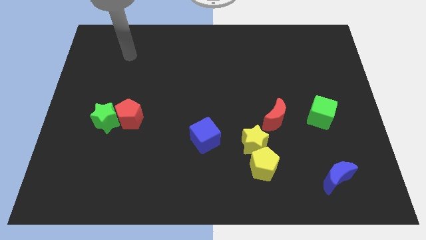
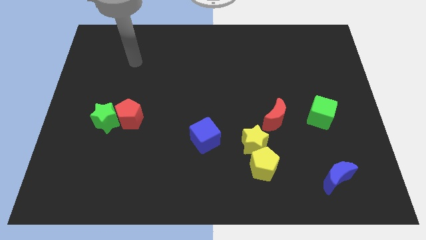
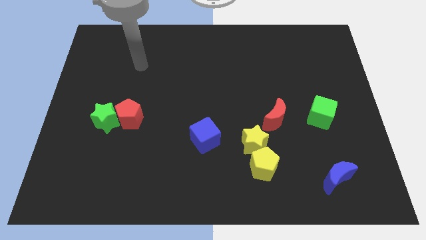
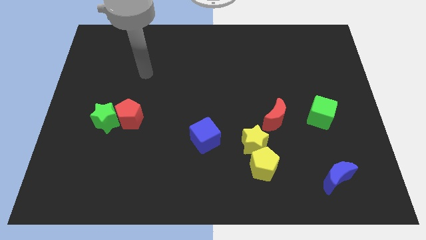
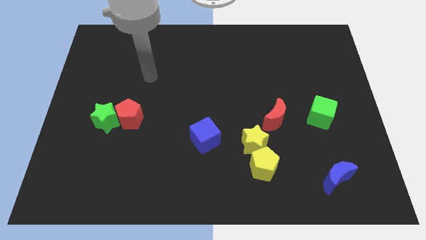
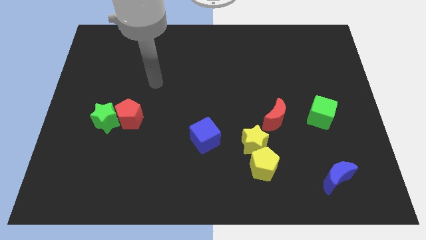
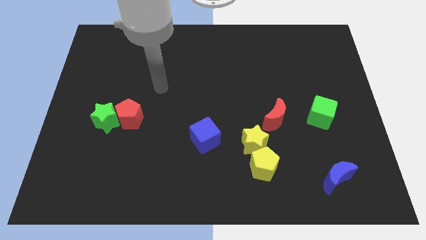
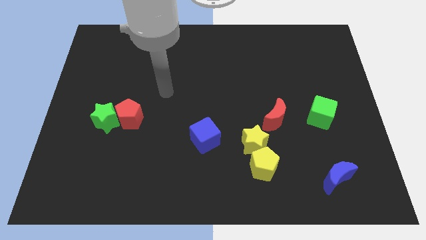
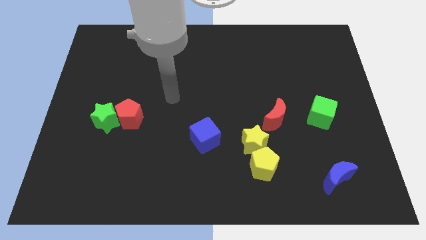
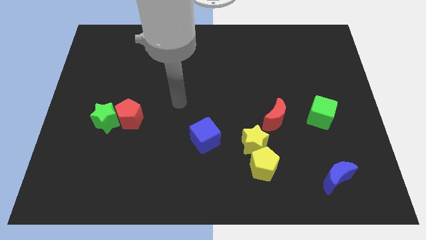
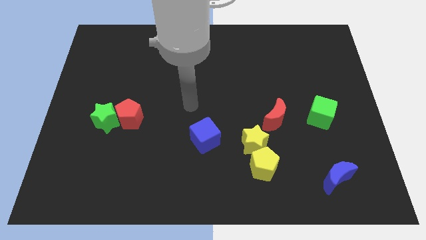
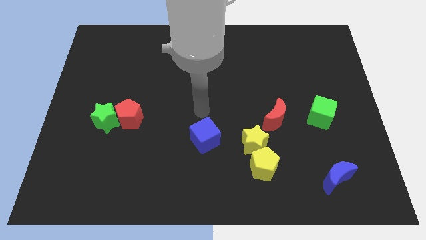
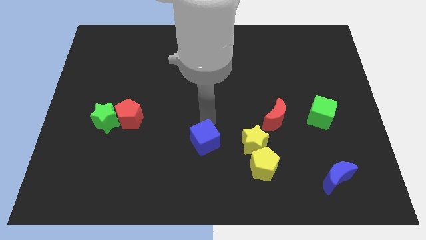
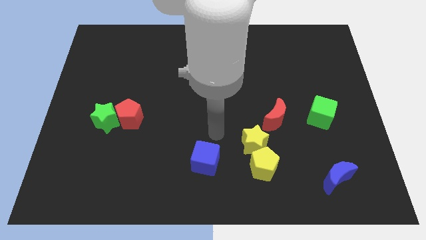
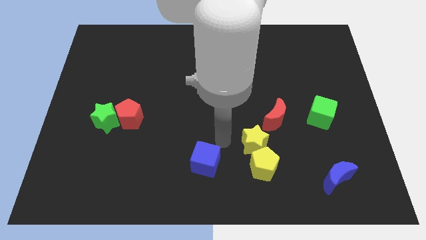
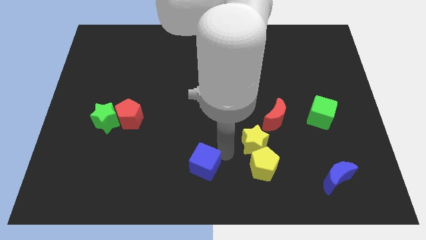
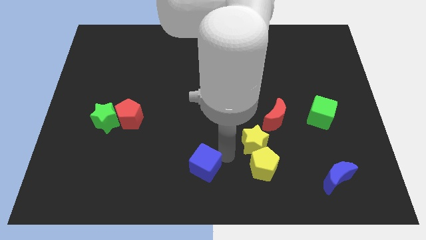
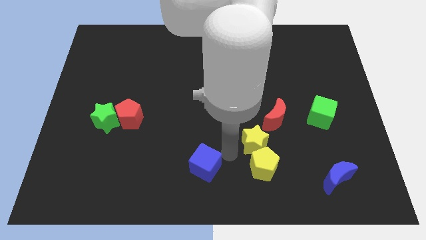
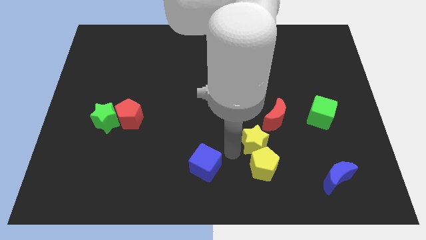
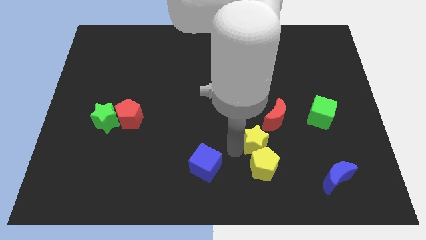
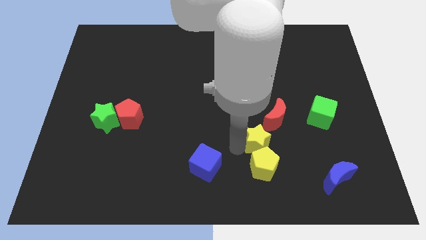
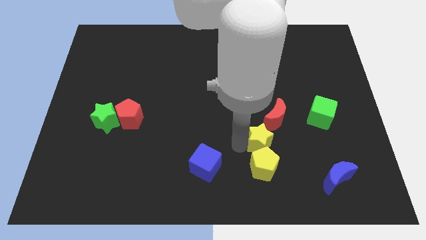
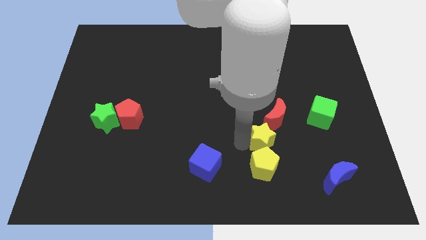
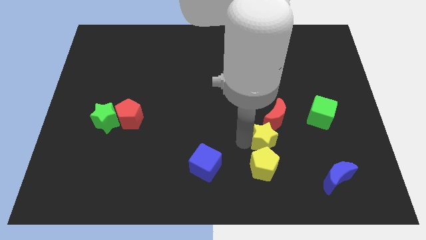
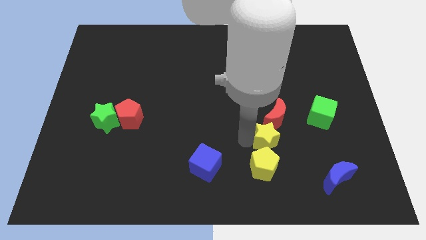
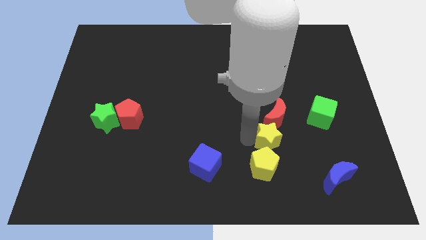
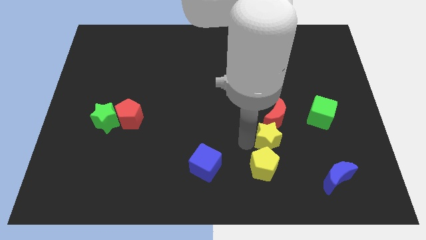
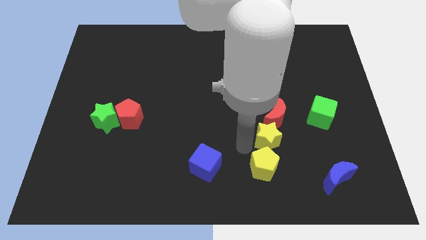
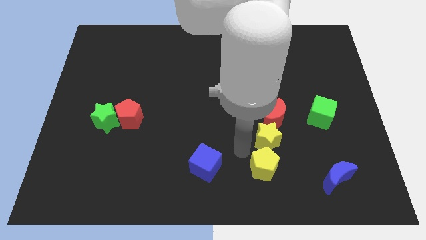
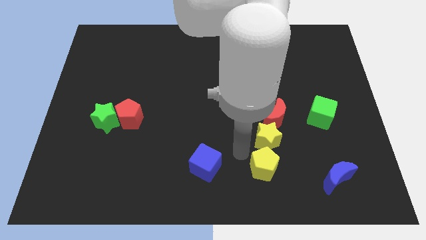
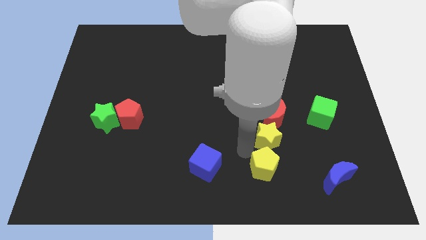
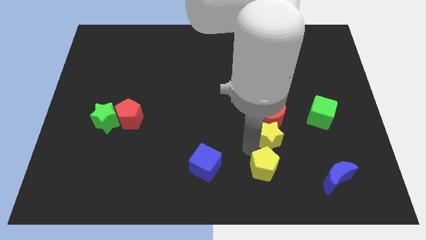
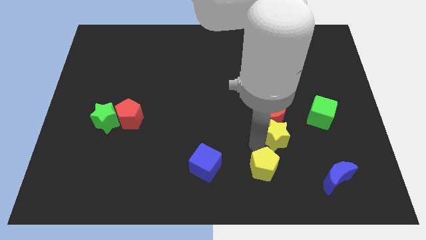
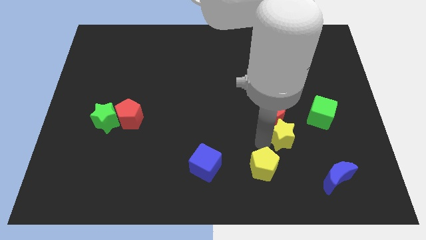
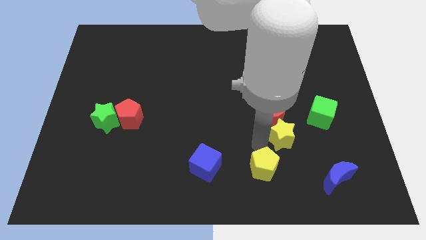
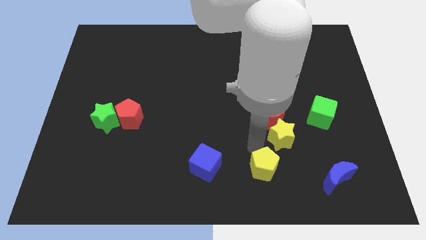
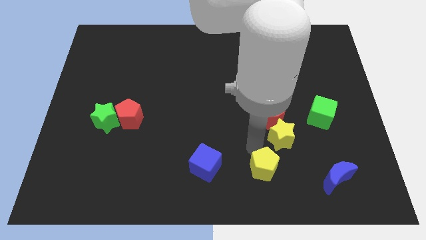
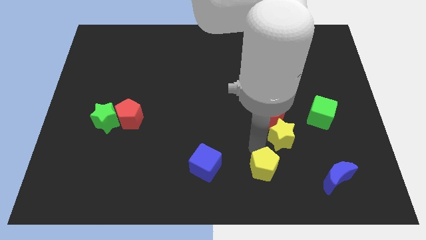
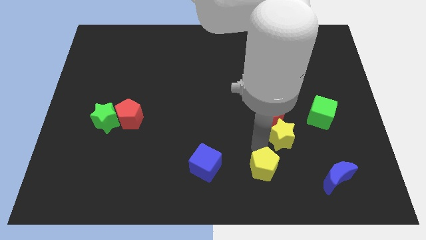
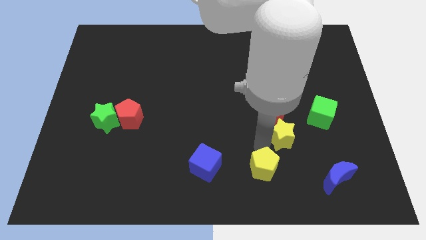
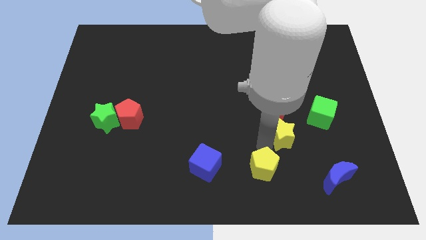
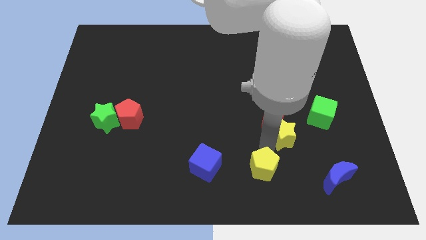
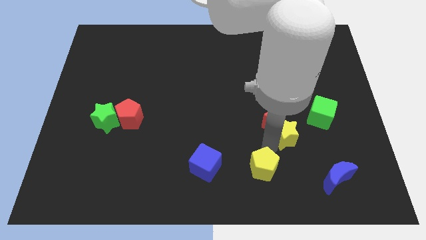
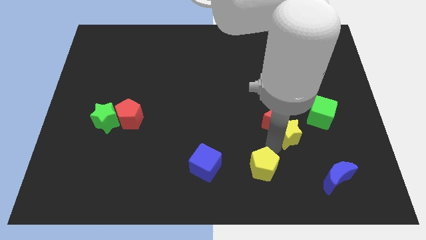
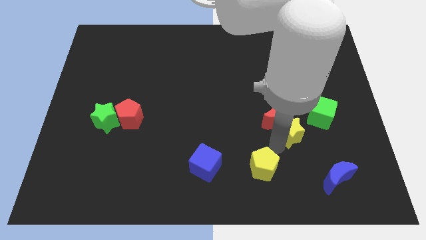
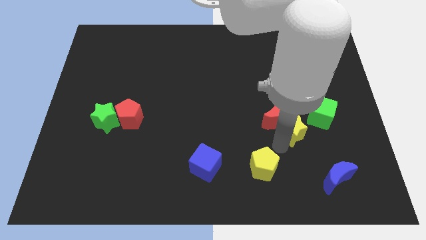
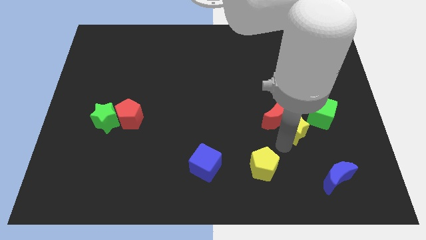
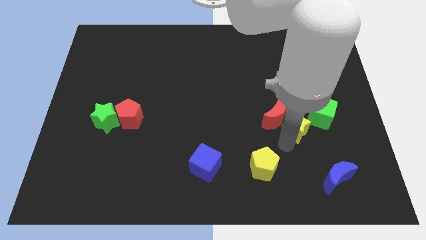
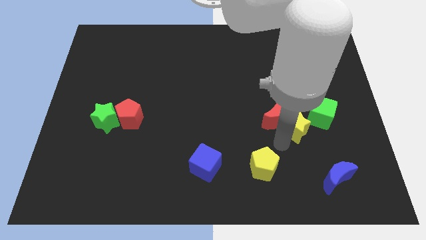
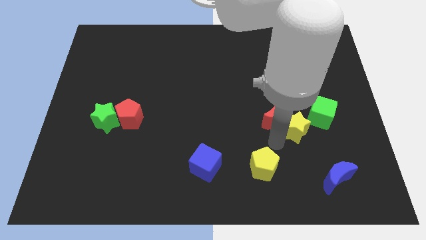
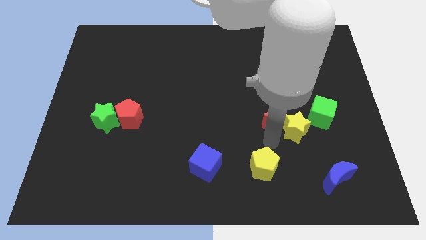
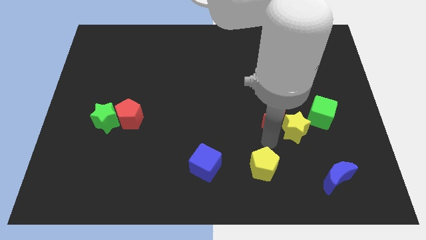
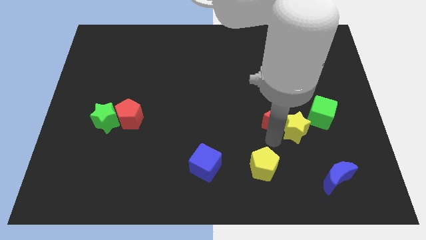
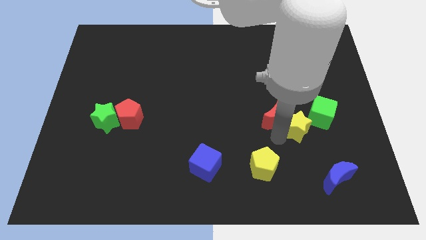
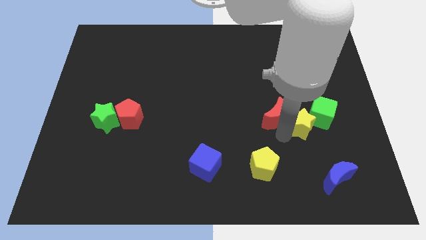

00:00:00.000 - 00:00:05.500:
push the yellow star towards the green cube
